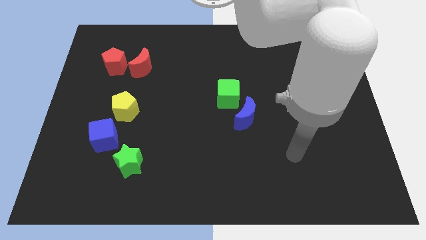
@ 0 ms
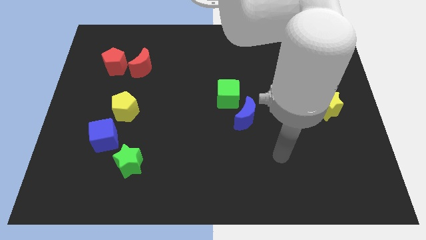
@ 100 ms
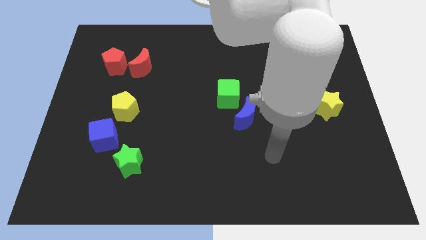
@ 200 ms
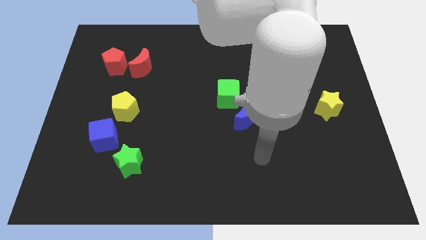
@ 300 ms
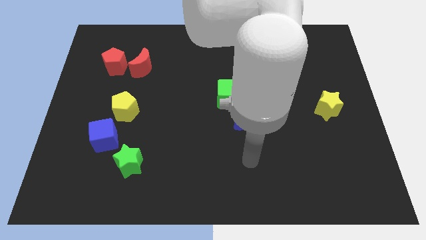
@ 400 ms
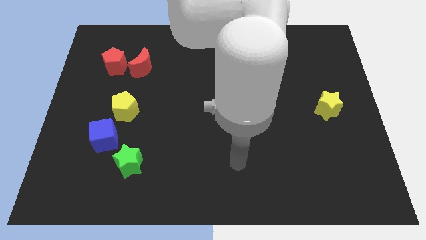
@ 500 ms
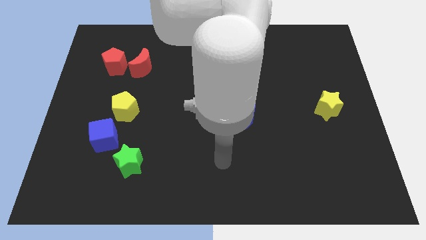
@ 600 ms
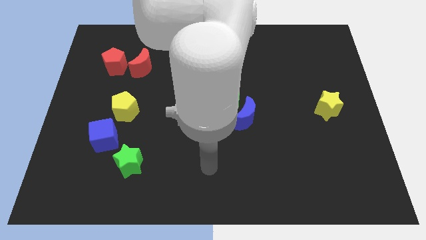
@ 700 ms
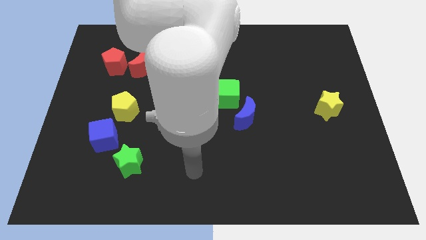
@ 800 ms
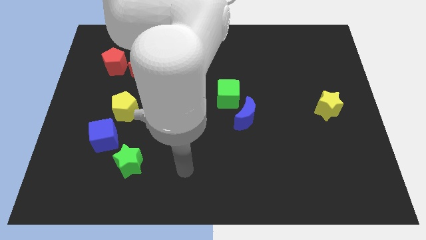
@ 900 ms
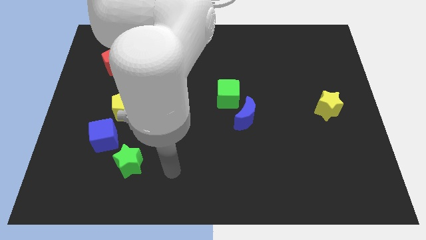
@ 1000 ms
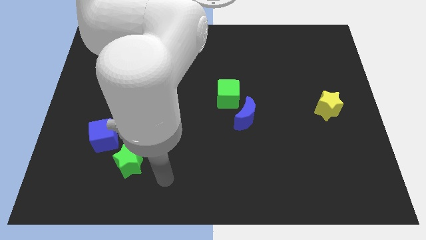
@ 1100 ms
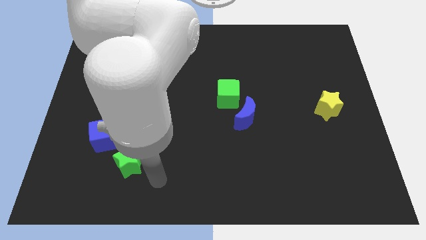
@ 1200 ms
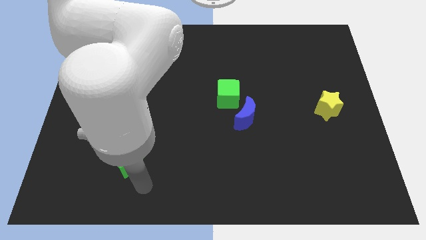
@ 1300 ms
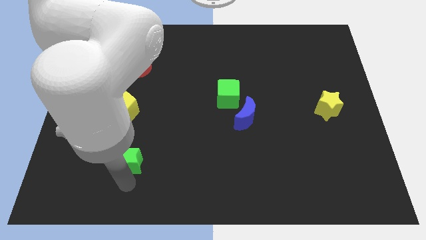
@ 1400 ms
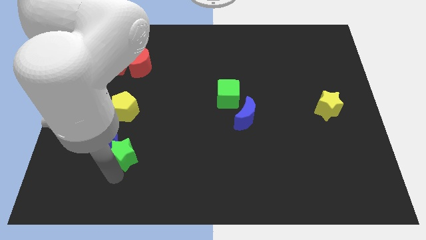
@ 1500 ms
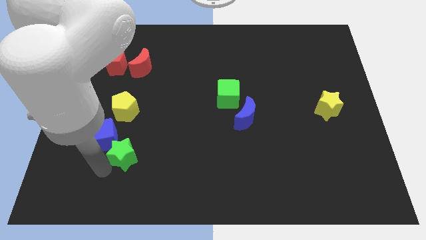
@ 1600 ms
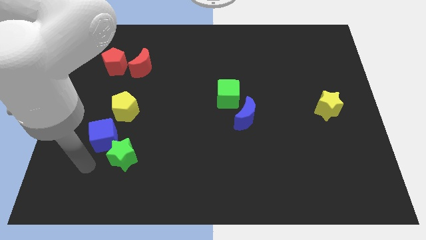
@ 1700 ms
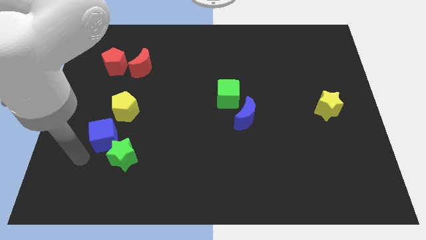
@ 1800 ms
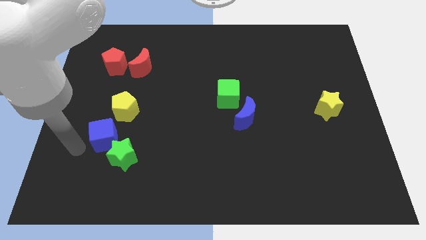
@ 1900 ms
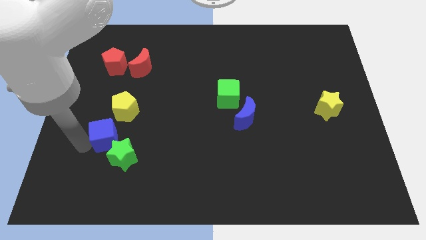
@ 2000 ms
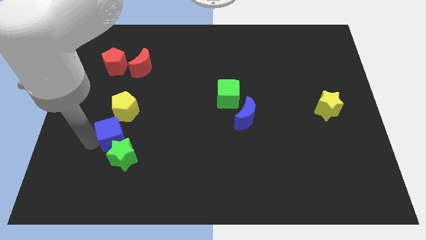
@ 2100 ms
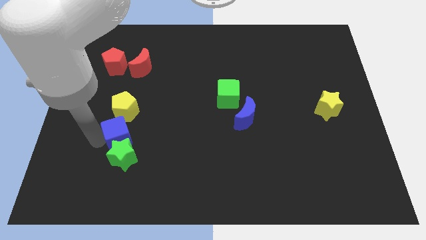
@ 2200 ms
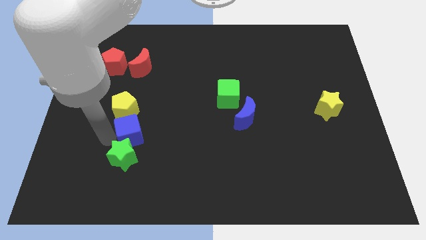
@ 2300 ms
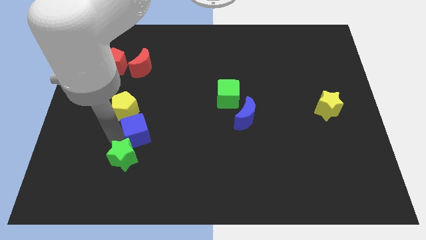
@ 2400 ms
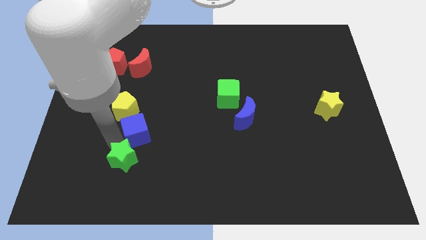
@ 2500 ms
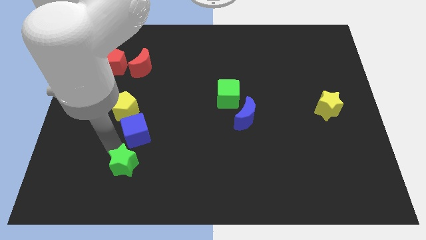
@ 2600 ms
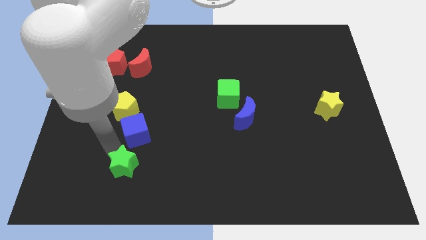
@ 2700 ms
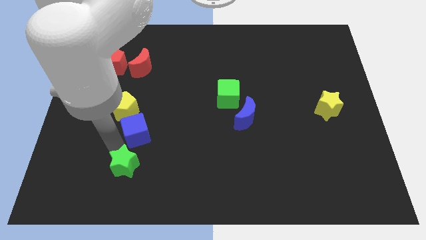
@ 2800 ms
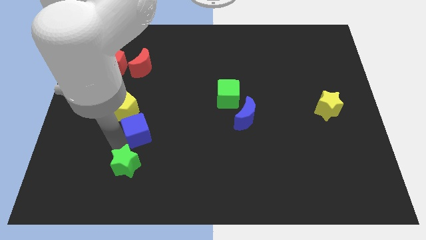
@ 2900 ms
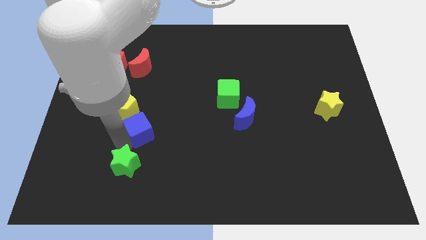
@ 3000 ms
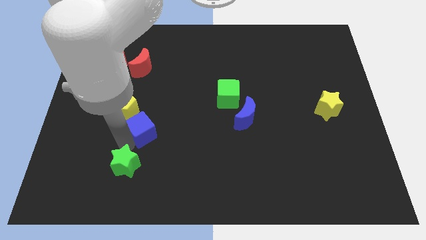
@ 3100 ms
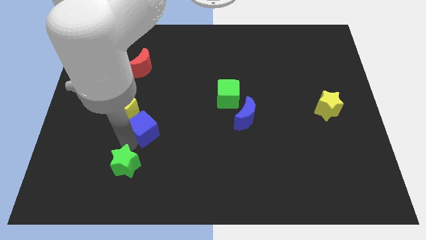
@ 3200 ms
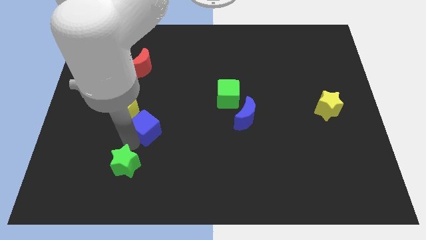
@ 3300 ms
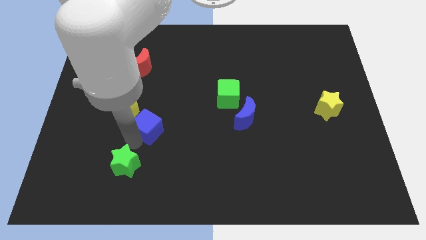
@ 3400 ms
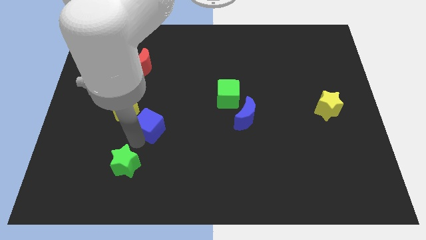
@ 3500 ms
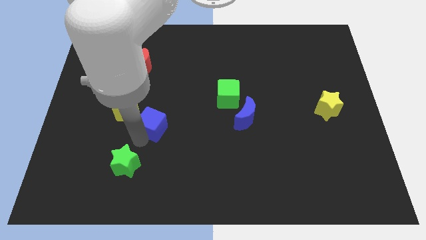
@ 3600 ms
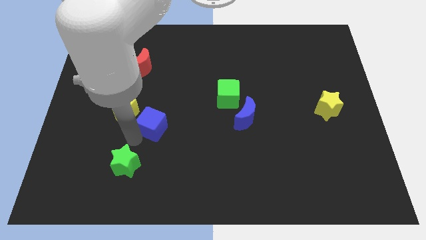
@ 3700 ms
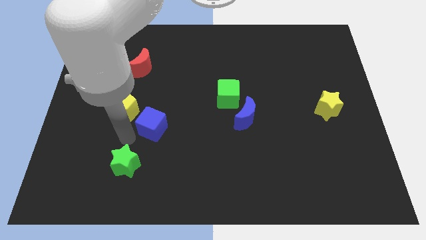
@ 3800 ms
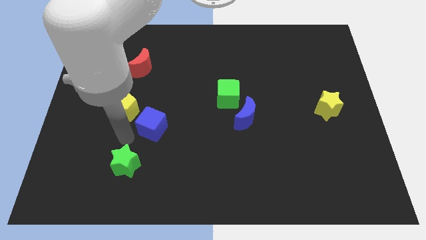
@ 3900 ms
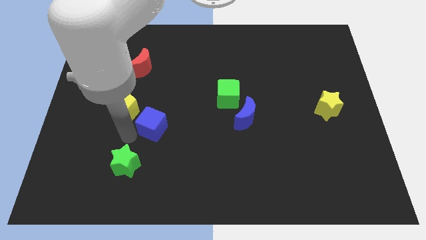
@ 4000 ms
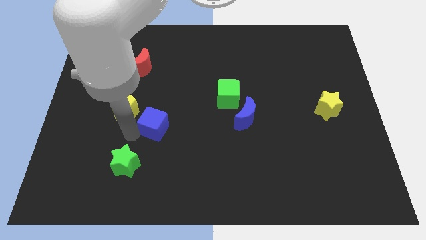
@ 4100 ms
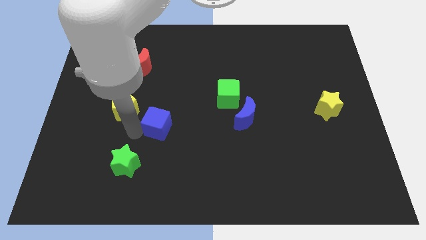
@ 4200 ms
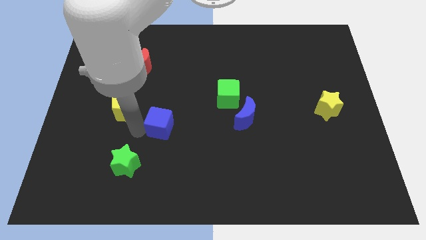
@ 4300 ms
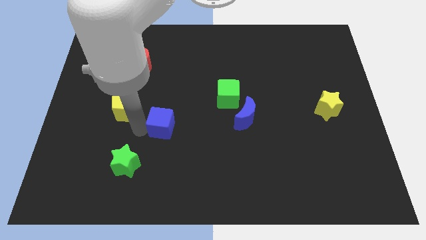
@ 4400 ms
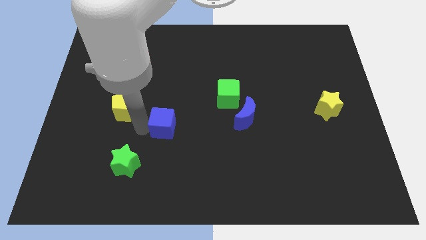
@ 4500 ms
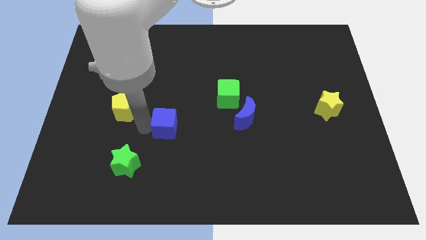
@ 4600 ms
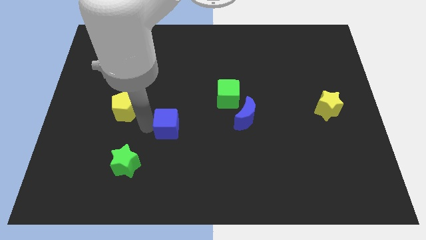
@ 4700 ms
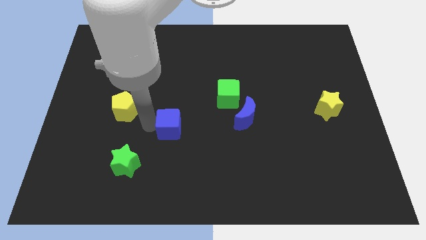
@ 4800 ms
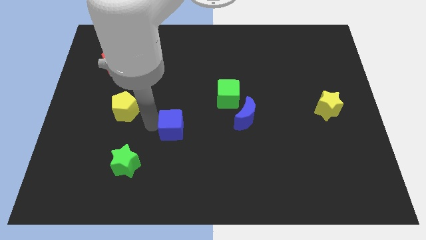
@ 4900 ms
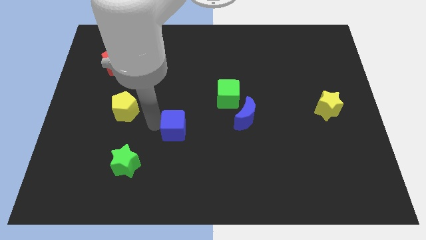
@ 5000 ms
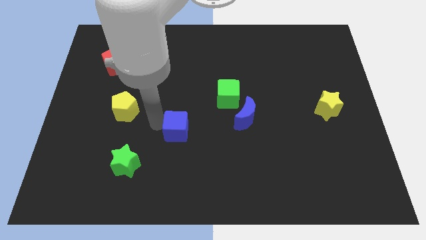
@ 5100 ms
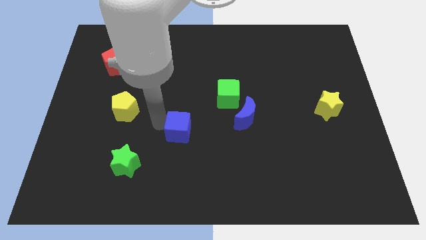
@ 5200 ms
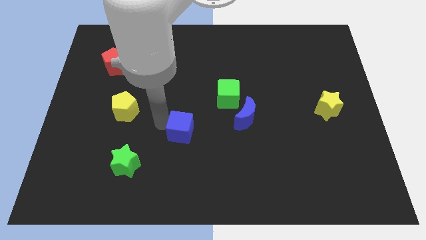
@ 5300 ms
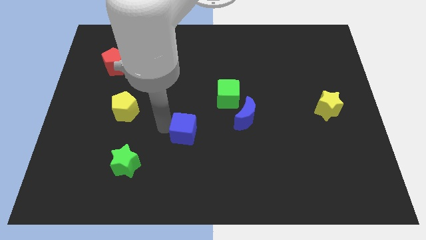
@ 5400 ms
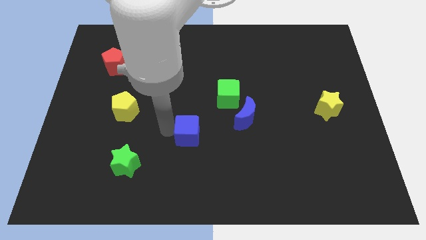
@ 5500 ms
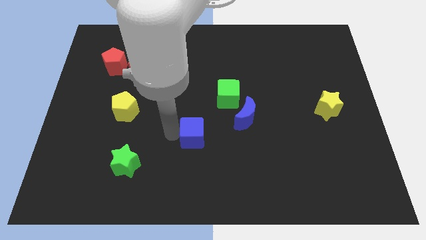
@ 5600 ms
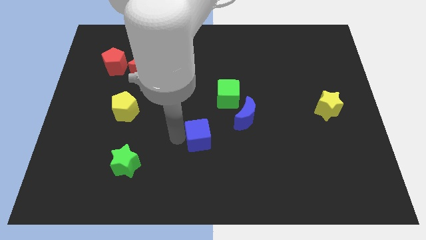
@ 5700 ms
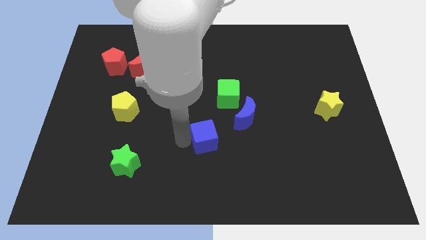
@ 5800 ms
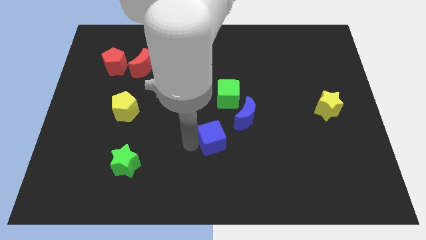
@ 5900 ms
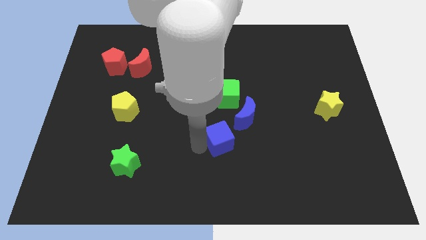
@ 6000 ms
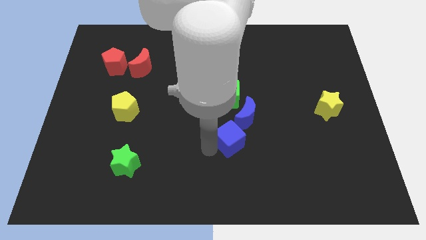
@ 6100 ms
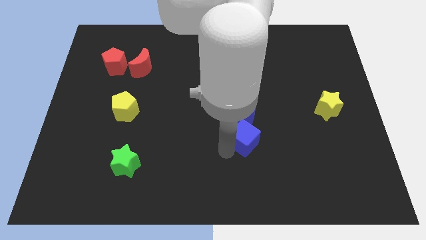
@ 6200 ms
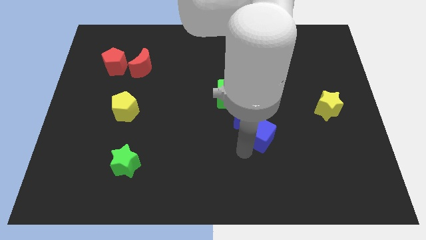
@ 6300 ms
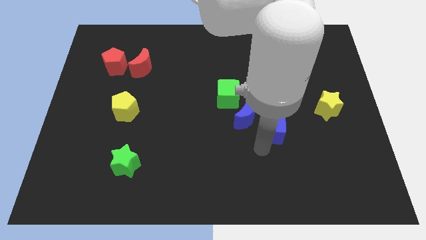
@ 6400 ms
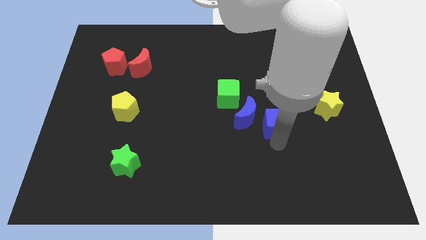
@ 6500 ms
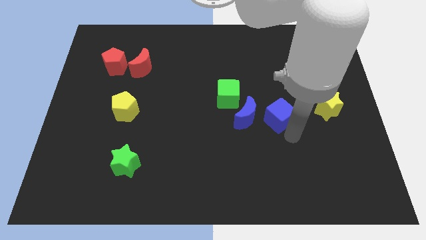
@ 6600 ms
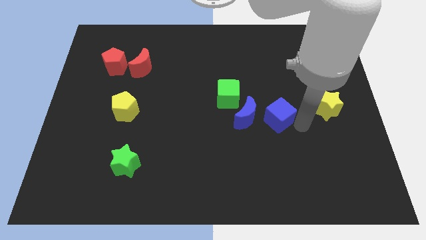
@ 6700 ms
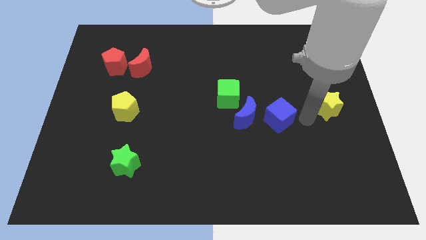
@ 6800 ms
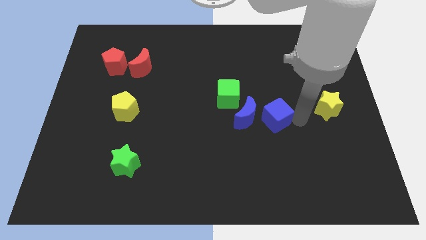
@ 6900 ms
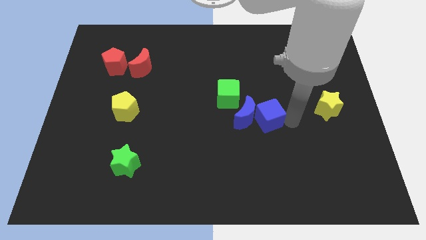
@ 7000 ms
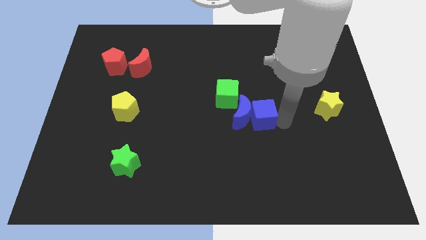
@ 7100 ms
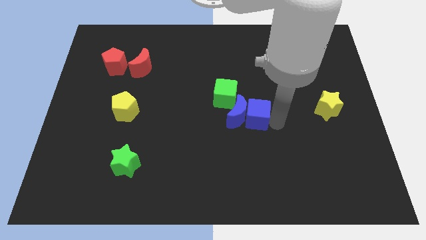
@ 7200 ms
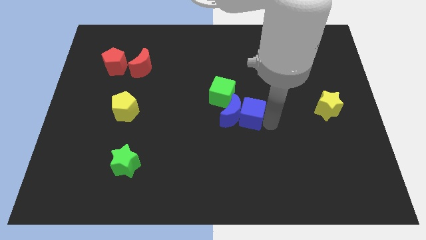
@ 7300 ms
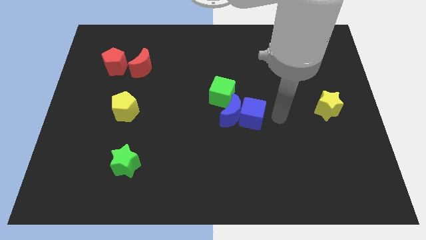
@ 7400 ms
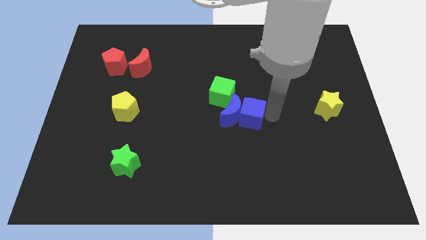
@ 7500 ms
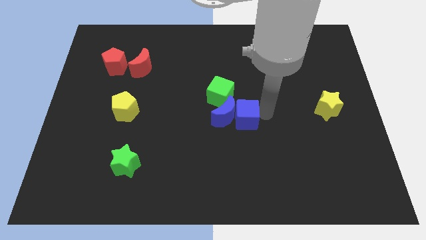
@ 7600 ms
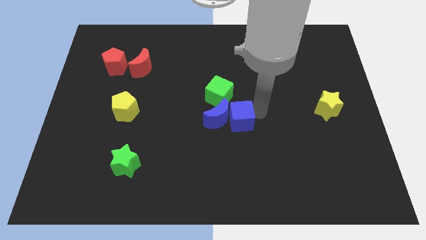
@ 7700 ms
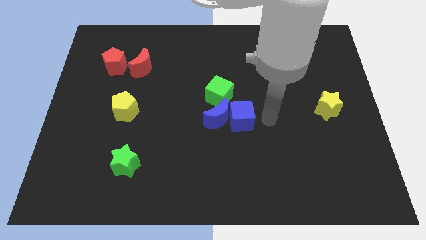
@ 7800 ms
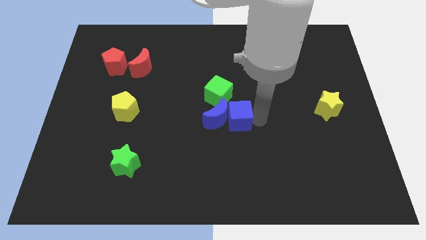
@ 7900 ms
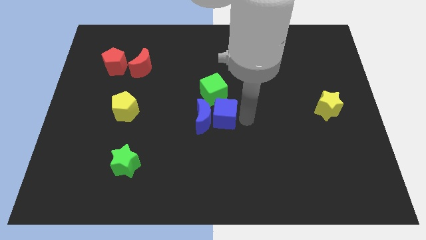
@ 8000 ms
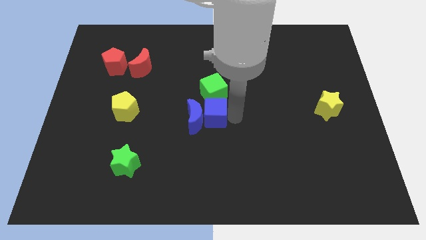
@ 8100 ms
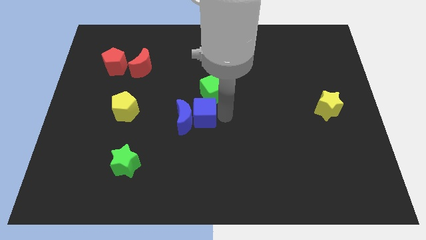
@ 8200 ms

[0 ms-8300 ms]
slide the blue cube to the bottom left of the green cube
